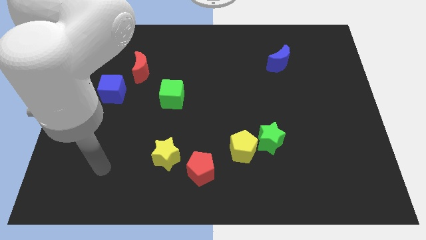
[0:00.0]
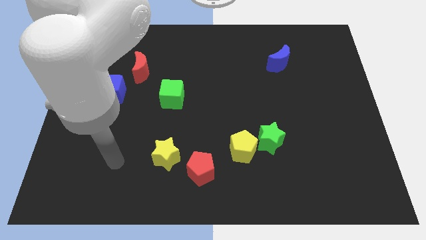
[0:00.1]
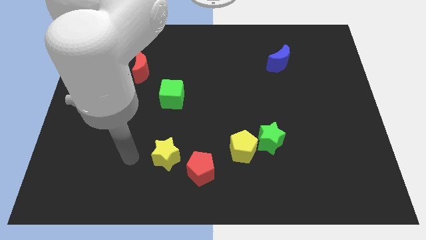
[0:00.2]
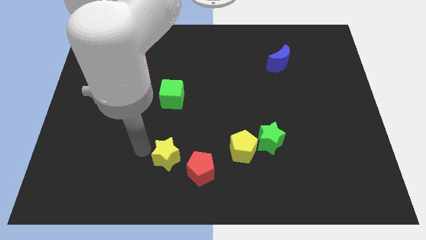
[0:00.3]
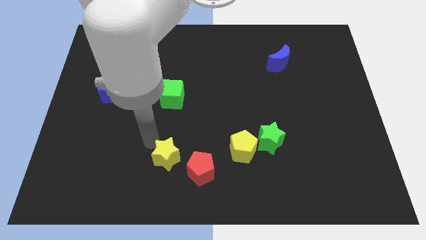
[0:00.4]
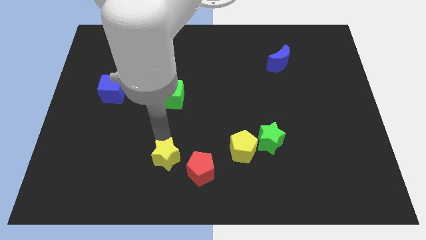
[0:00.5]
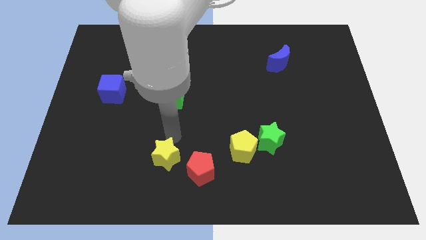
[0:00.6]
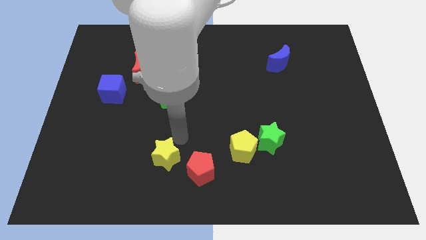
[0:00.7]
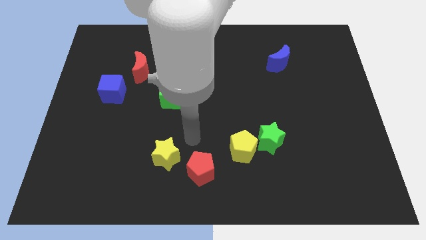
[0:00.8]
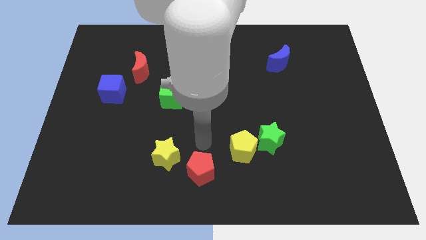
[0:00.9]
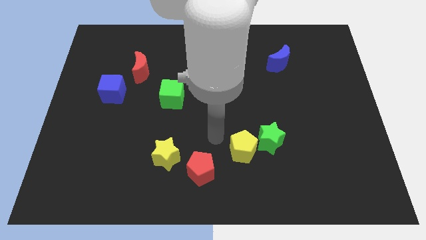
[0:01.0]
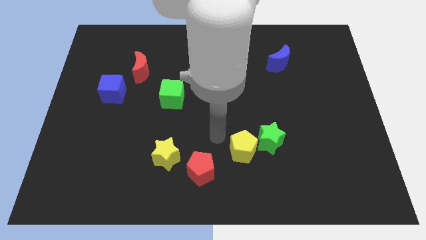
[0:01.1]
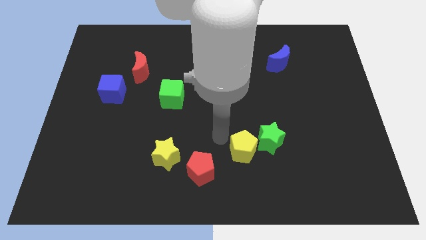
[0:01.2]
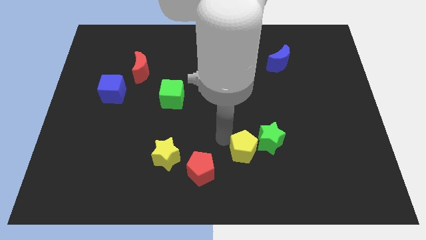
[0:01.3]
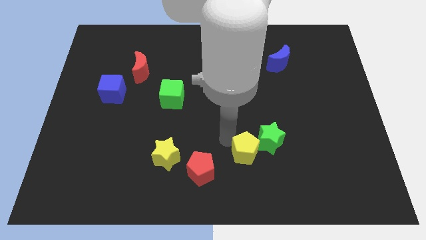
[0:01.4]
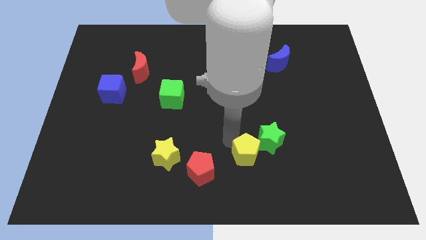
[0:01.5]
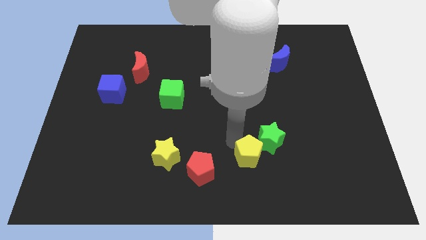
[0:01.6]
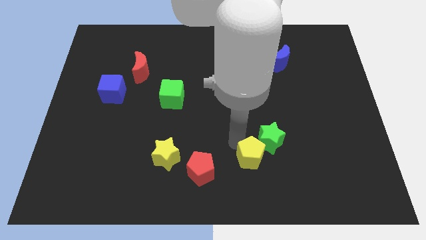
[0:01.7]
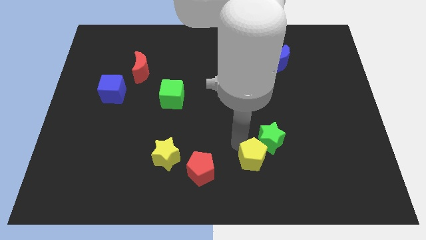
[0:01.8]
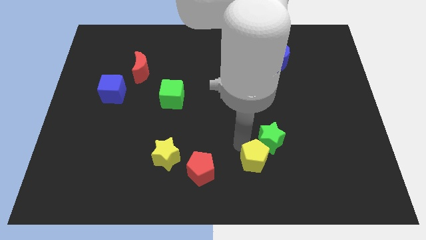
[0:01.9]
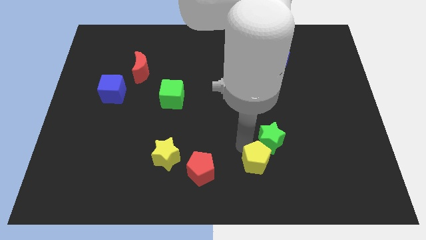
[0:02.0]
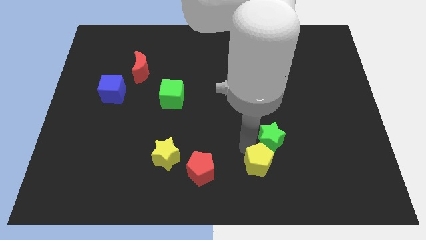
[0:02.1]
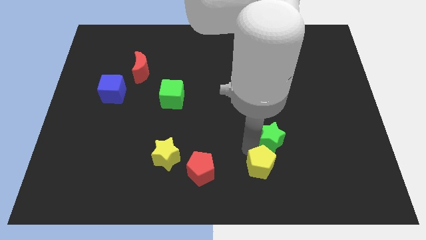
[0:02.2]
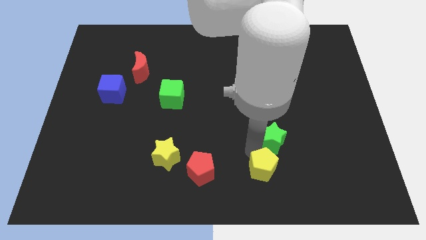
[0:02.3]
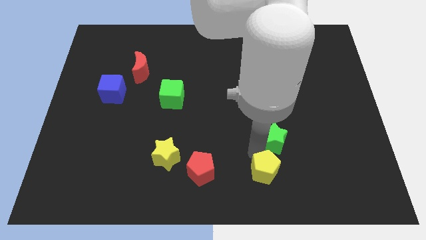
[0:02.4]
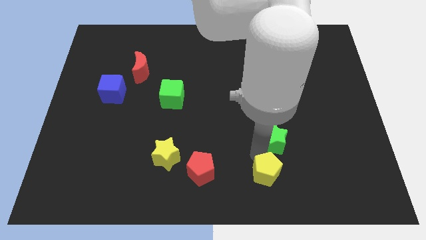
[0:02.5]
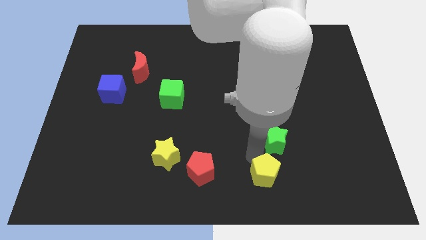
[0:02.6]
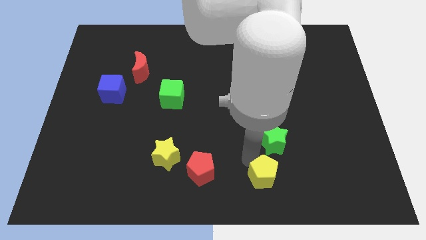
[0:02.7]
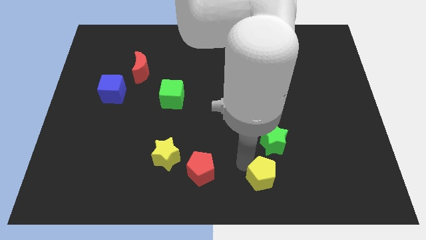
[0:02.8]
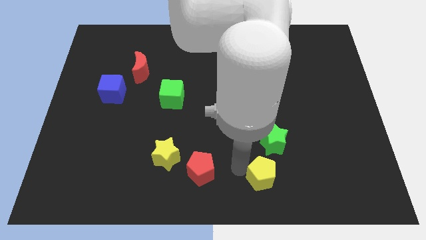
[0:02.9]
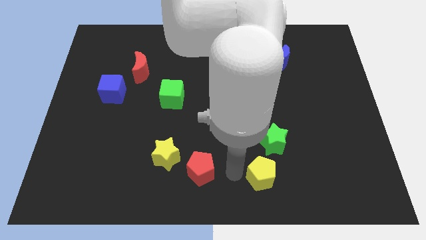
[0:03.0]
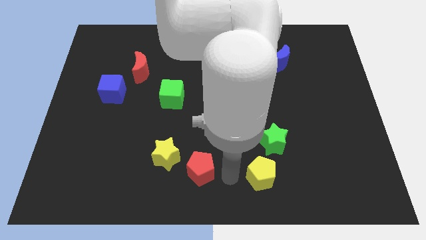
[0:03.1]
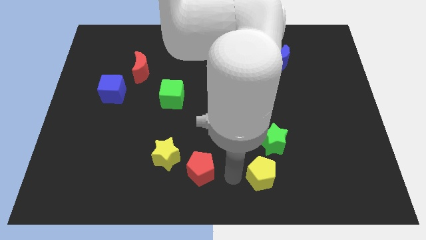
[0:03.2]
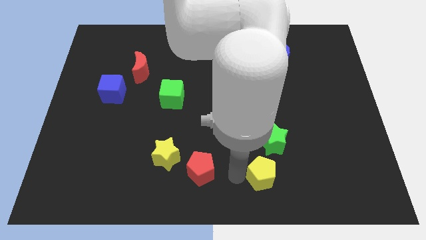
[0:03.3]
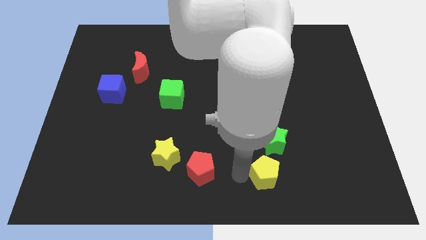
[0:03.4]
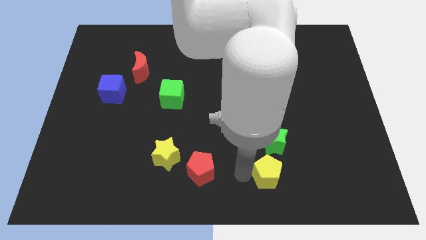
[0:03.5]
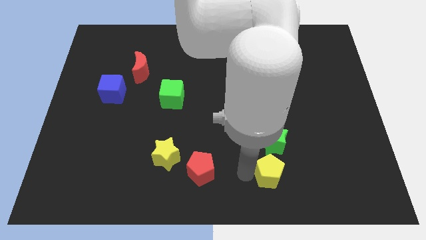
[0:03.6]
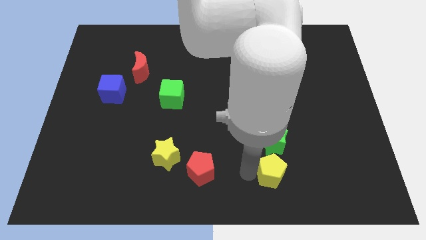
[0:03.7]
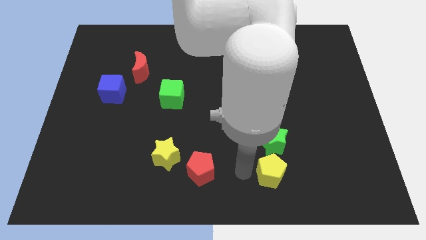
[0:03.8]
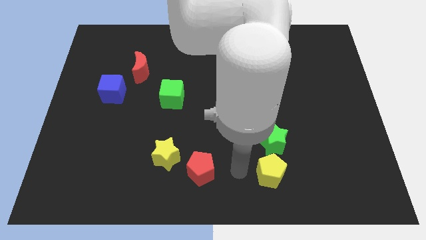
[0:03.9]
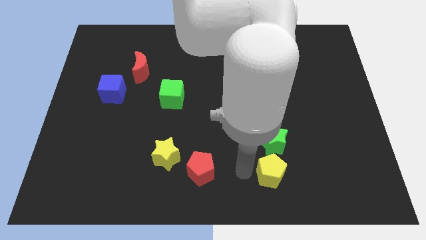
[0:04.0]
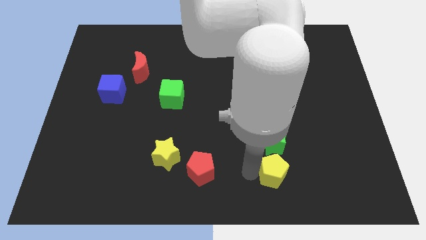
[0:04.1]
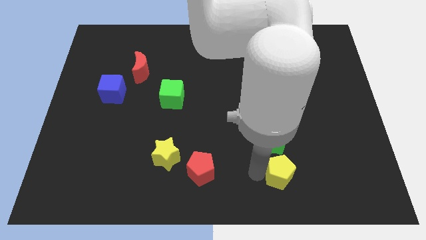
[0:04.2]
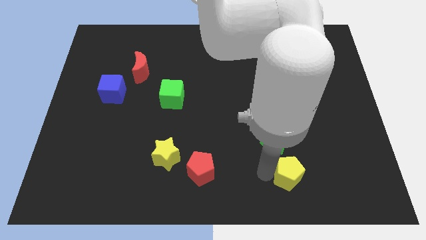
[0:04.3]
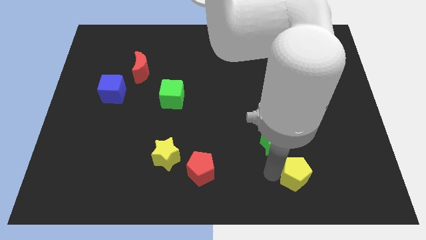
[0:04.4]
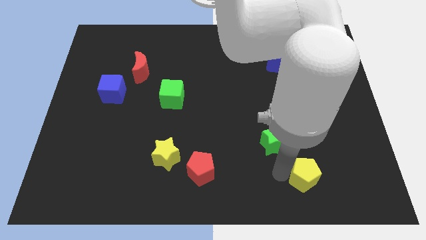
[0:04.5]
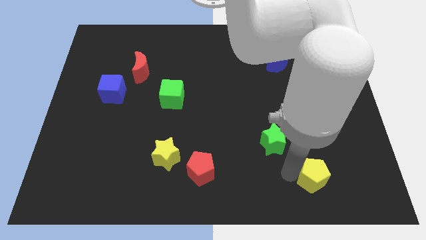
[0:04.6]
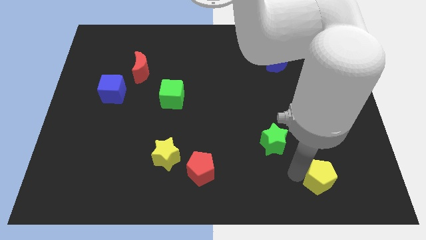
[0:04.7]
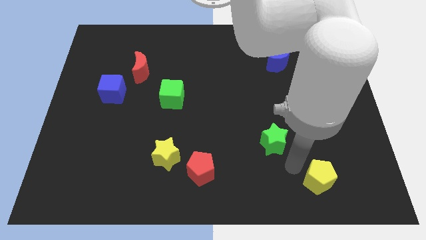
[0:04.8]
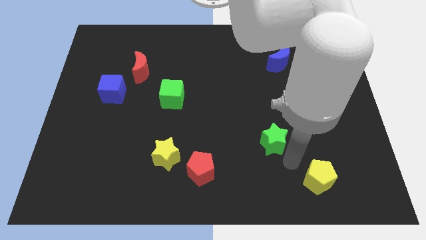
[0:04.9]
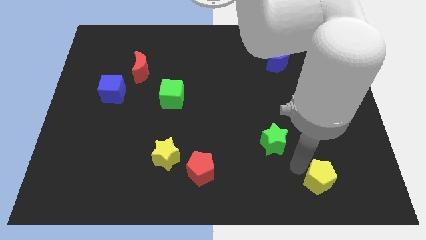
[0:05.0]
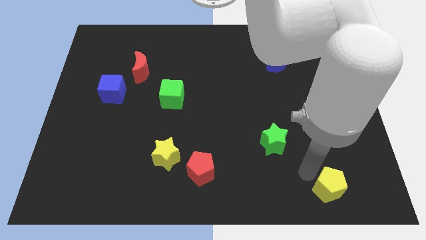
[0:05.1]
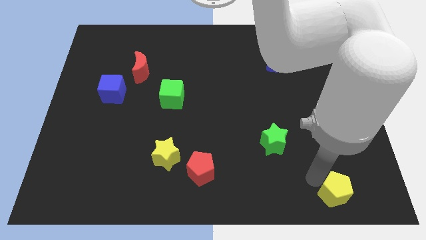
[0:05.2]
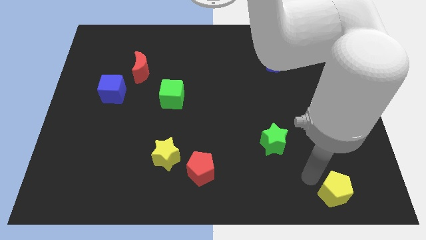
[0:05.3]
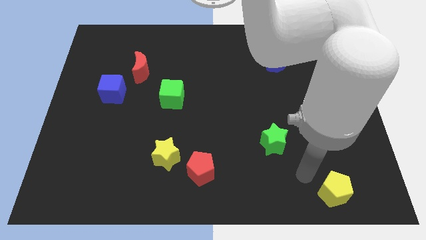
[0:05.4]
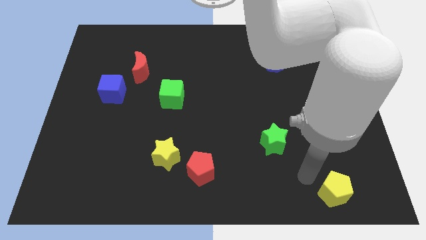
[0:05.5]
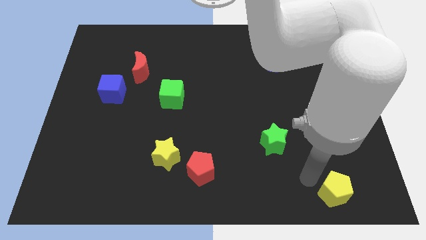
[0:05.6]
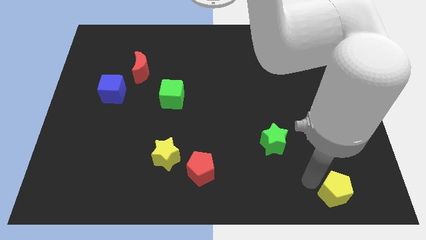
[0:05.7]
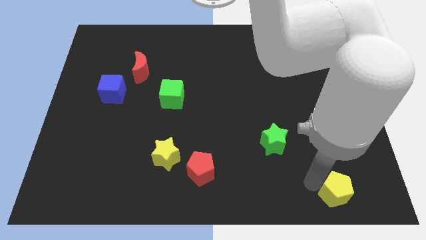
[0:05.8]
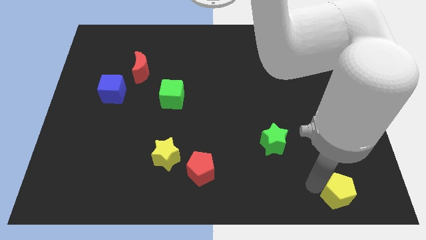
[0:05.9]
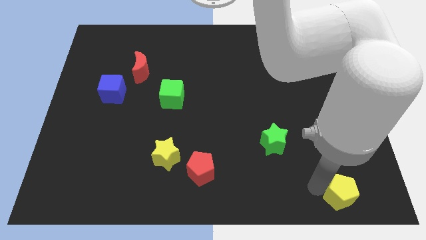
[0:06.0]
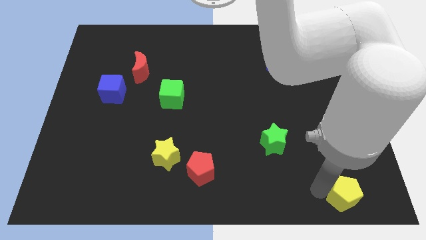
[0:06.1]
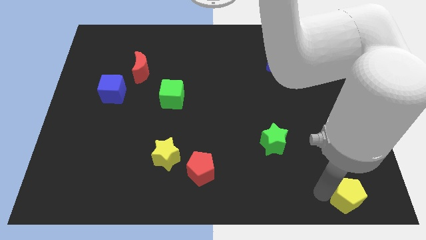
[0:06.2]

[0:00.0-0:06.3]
slide the yellow pentagon to the bottom right corner
